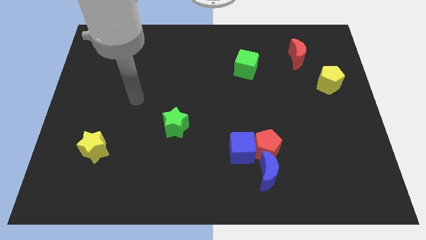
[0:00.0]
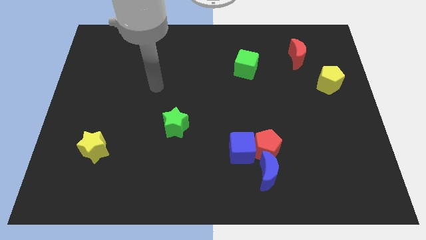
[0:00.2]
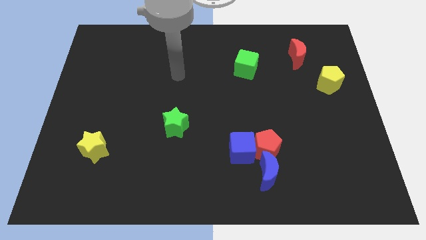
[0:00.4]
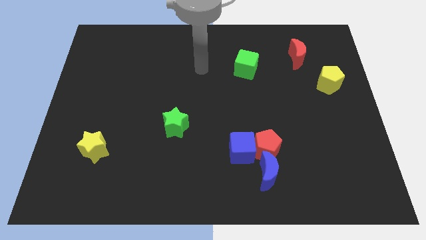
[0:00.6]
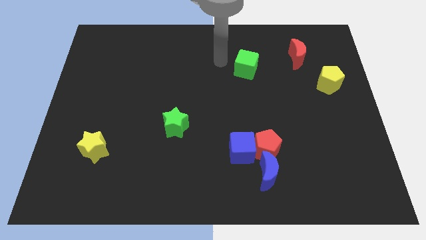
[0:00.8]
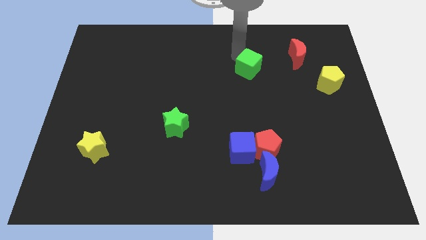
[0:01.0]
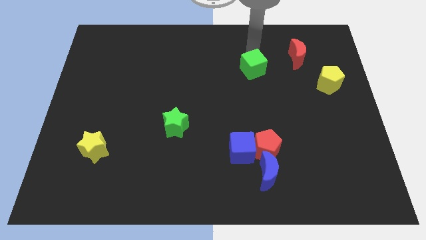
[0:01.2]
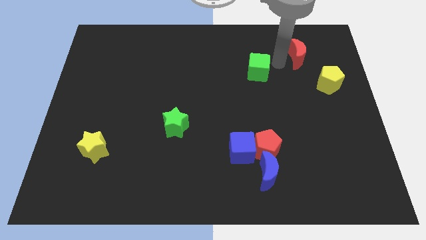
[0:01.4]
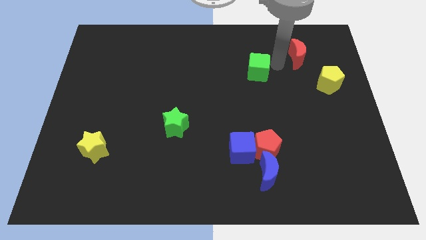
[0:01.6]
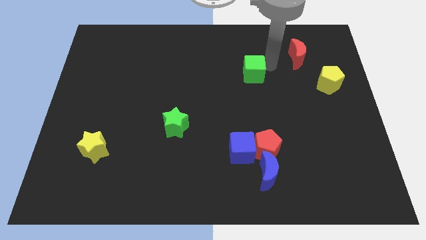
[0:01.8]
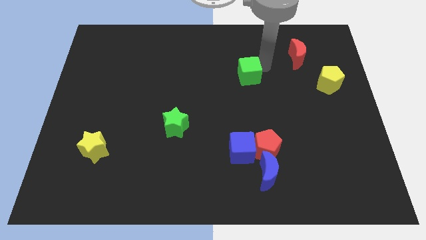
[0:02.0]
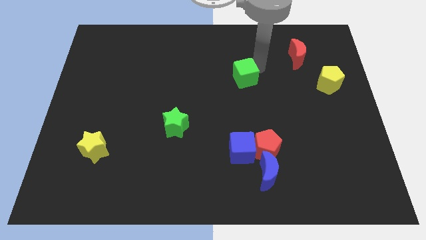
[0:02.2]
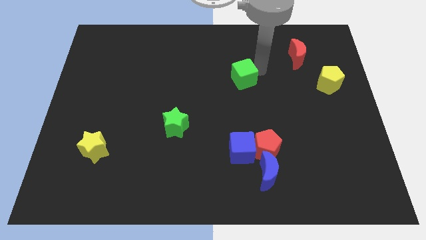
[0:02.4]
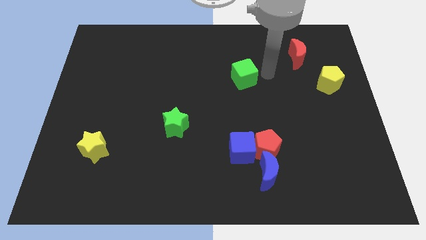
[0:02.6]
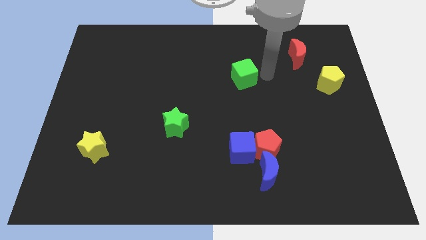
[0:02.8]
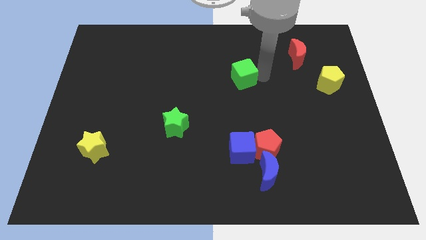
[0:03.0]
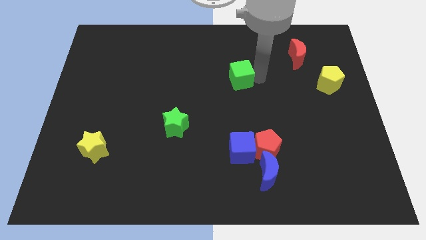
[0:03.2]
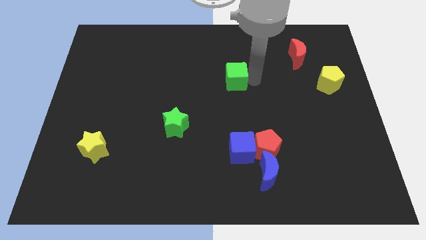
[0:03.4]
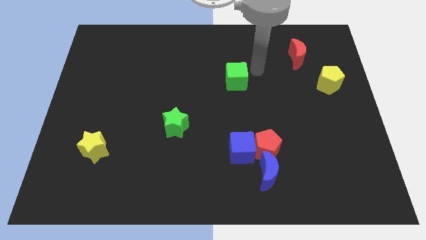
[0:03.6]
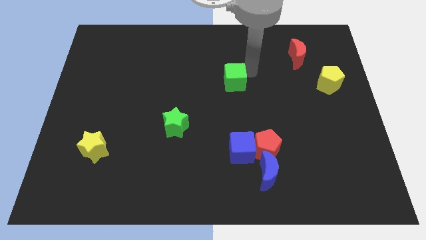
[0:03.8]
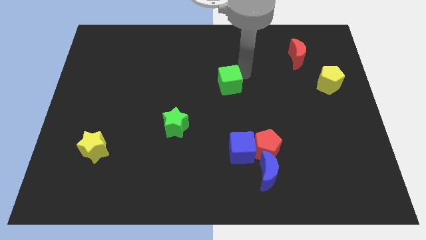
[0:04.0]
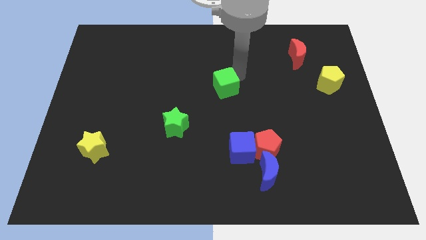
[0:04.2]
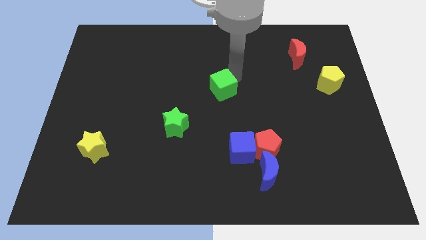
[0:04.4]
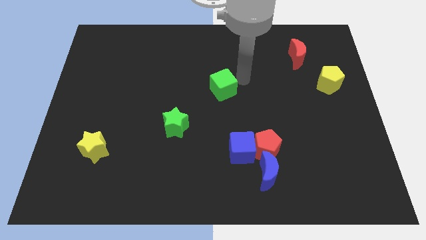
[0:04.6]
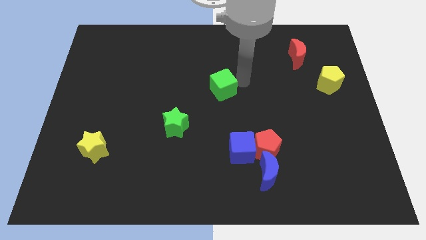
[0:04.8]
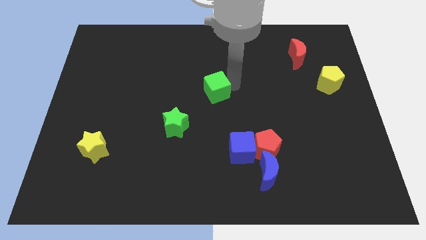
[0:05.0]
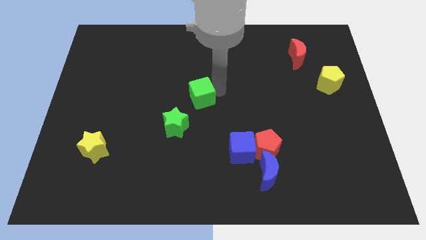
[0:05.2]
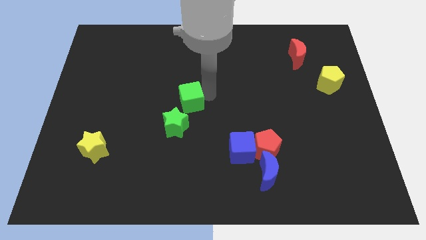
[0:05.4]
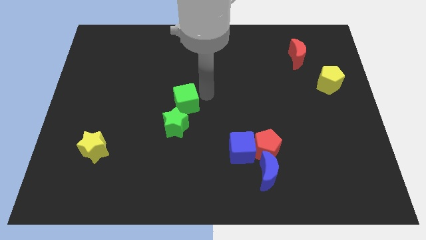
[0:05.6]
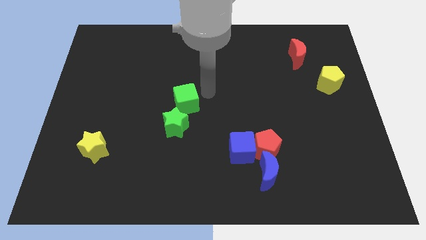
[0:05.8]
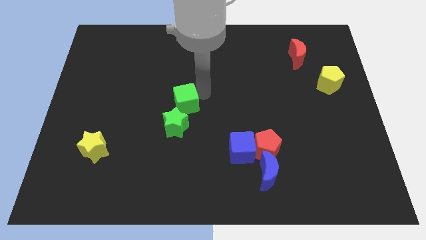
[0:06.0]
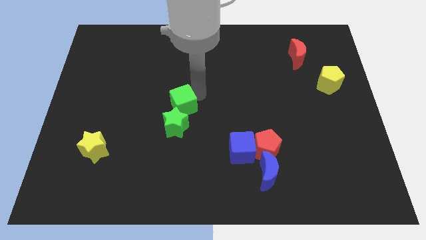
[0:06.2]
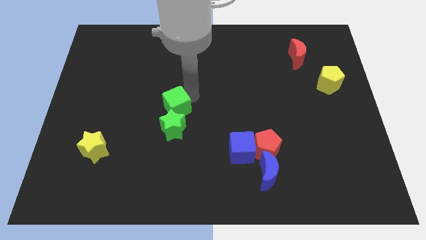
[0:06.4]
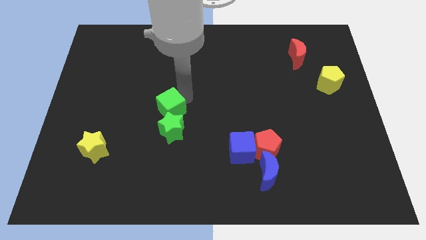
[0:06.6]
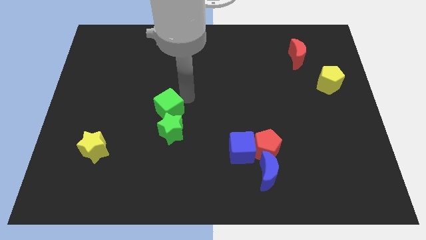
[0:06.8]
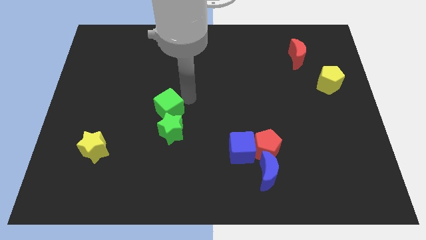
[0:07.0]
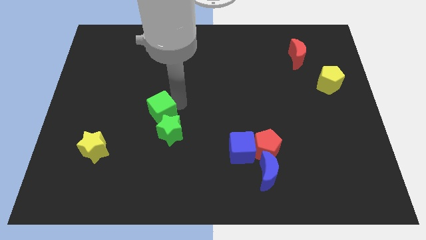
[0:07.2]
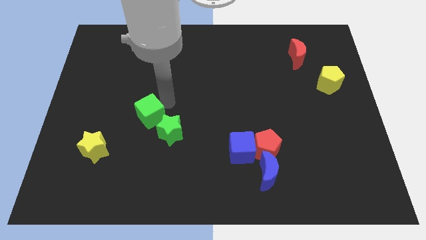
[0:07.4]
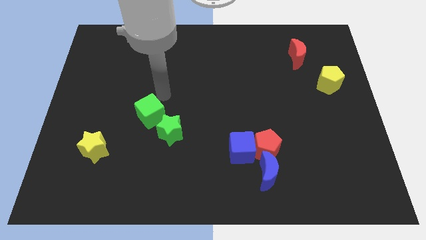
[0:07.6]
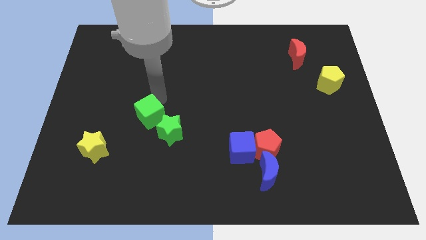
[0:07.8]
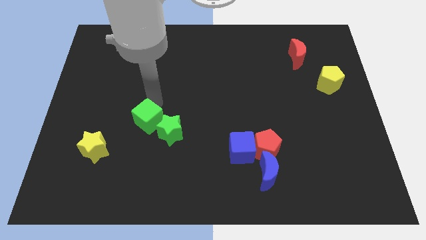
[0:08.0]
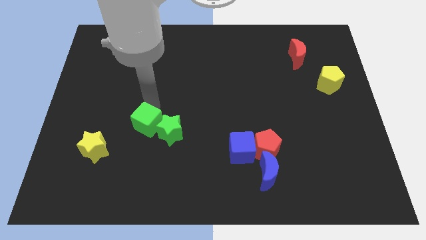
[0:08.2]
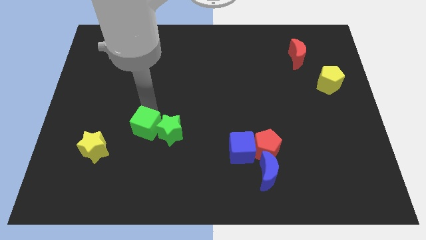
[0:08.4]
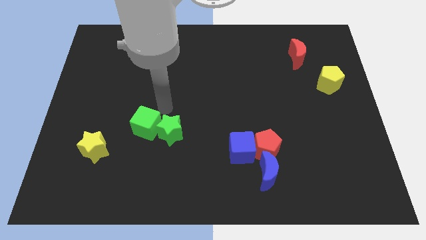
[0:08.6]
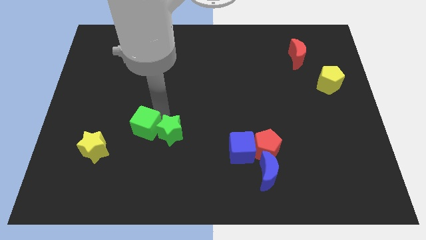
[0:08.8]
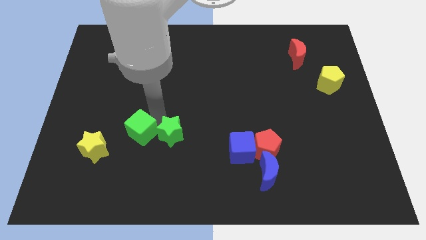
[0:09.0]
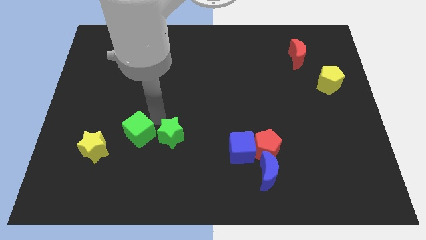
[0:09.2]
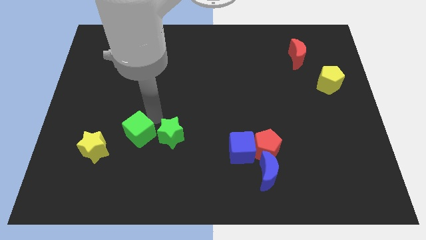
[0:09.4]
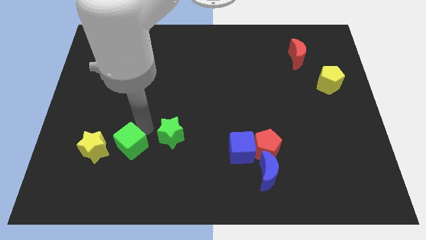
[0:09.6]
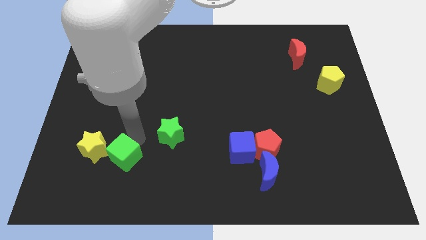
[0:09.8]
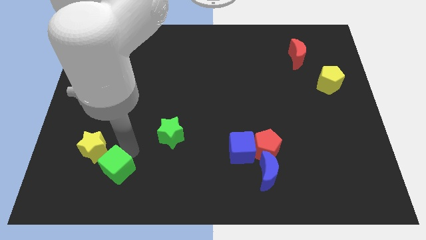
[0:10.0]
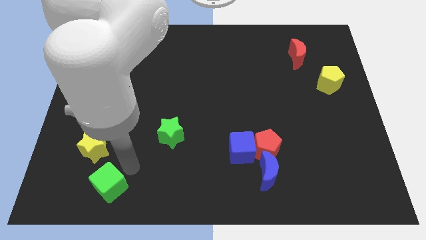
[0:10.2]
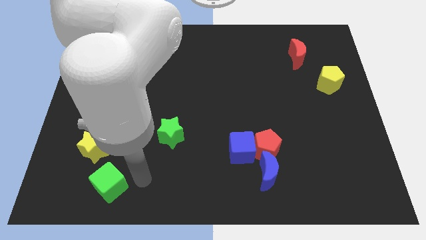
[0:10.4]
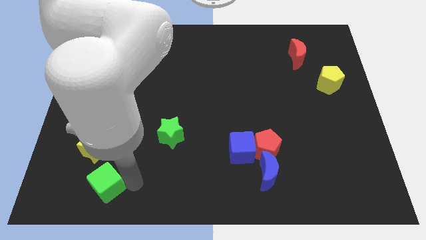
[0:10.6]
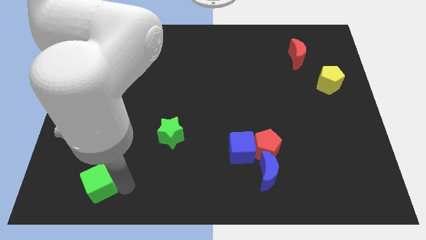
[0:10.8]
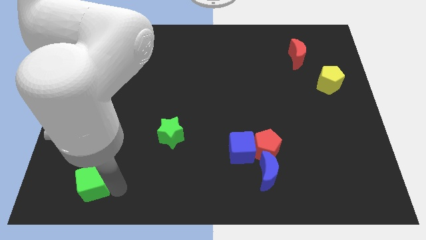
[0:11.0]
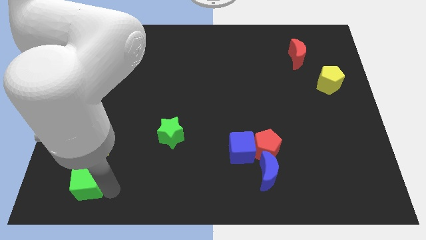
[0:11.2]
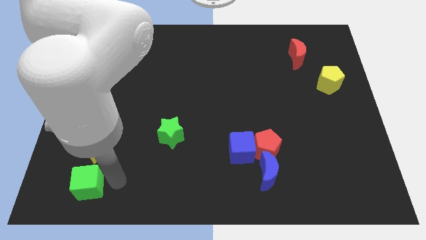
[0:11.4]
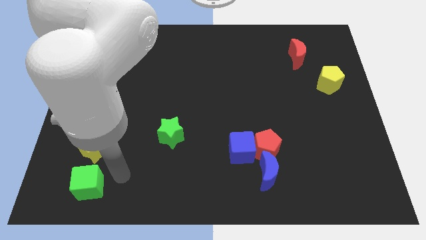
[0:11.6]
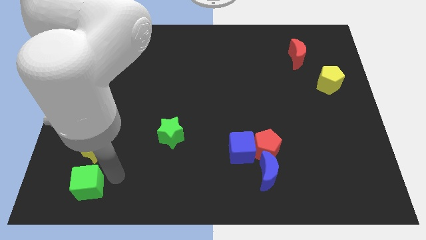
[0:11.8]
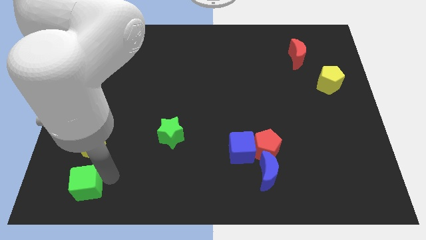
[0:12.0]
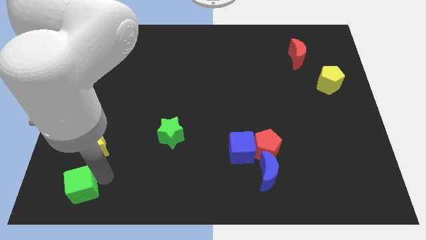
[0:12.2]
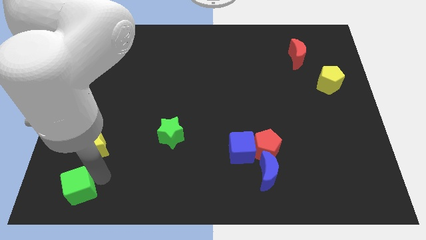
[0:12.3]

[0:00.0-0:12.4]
put the green cube to the bottom left of the board

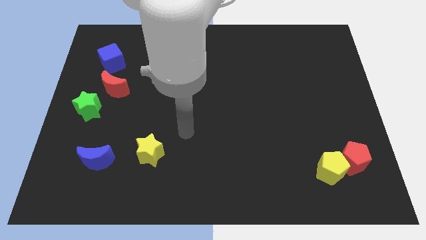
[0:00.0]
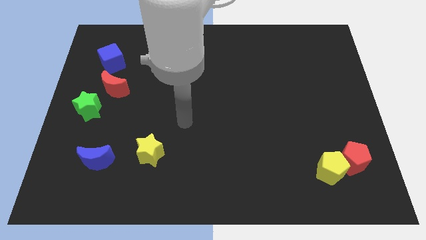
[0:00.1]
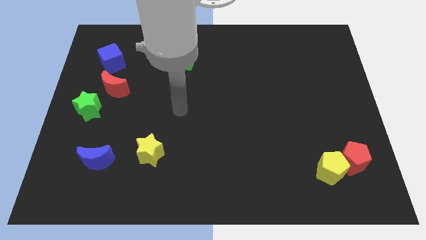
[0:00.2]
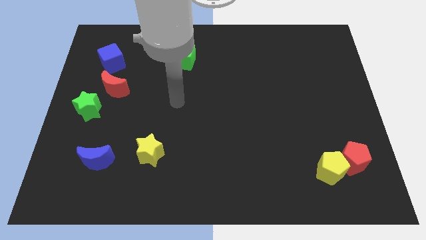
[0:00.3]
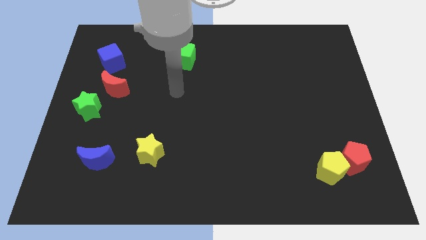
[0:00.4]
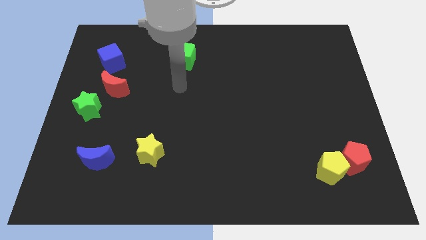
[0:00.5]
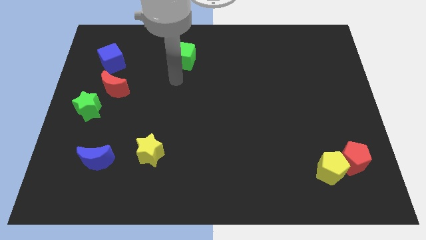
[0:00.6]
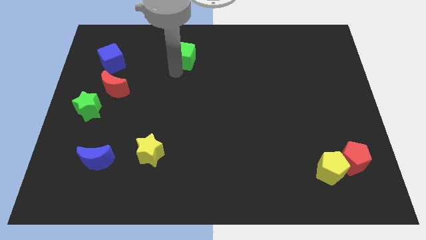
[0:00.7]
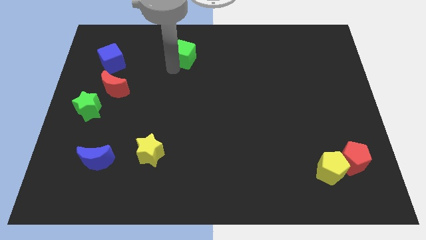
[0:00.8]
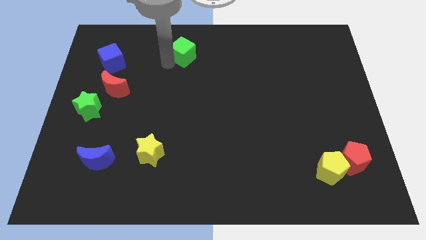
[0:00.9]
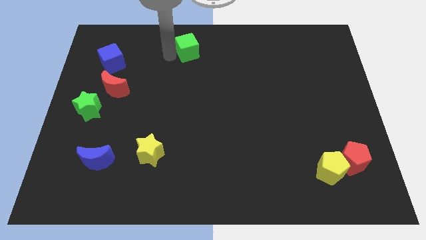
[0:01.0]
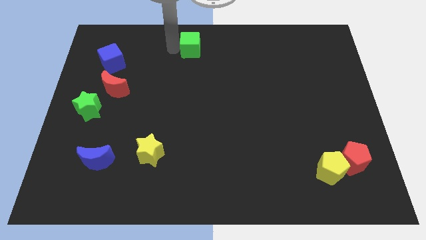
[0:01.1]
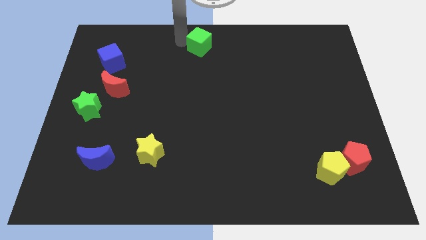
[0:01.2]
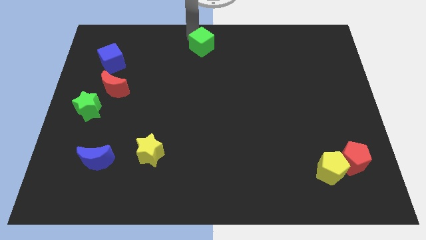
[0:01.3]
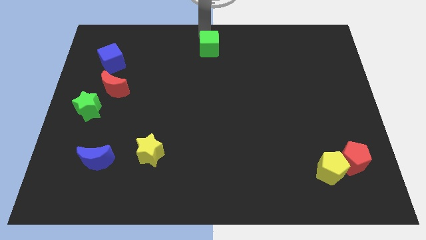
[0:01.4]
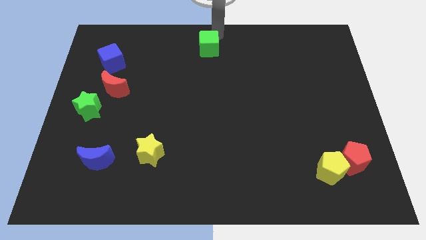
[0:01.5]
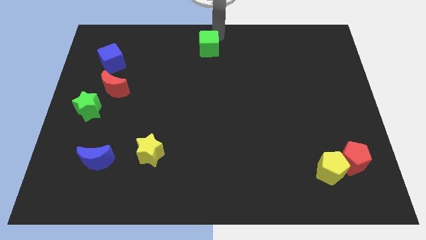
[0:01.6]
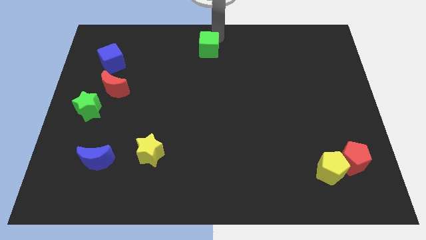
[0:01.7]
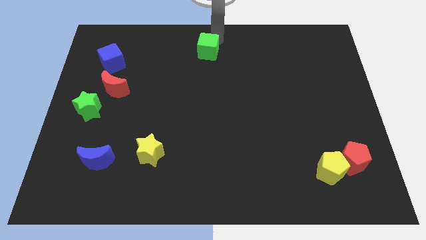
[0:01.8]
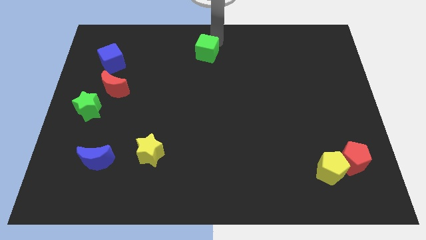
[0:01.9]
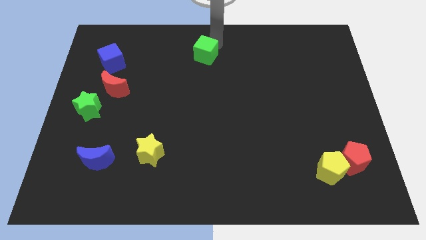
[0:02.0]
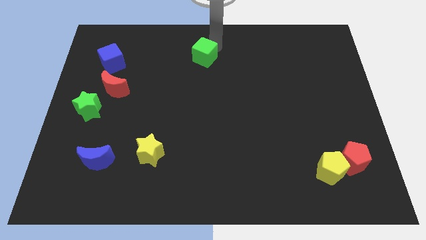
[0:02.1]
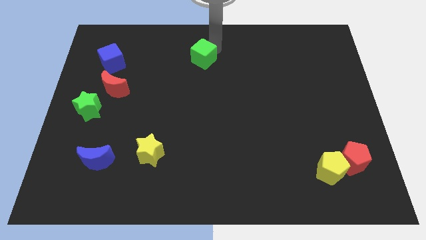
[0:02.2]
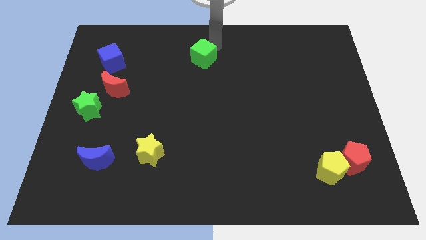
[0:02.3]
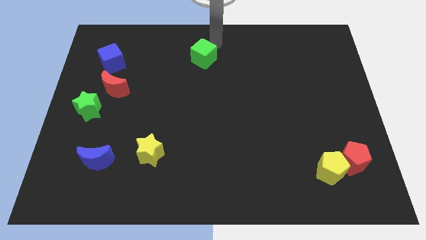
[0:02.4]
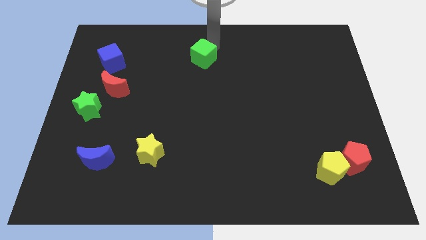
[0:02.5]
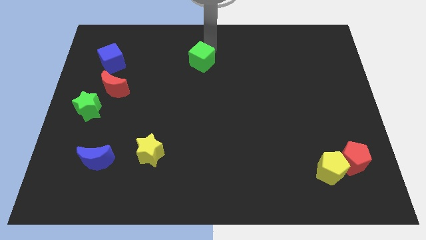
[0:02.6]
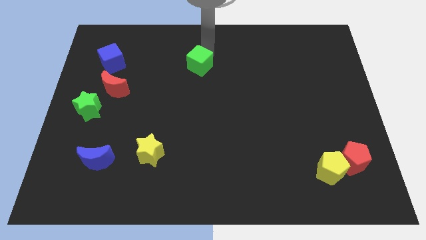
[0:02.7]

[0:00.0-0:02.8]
put the green cube to the middle
